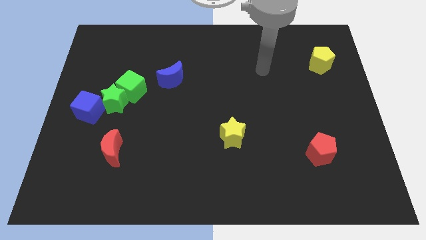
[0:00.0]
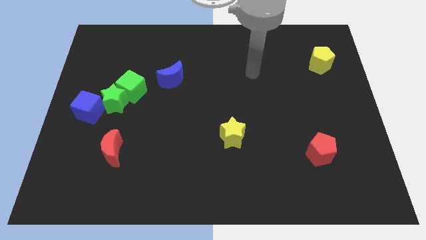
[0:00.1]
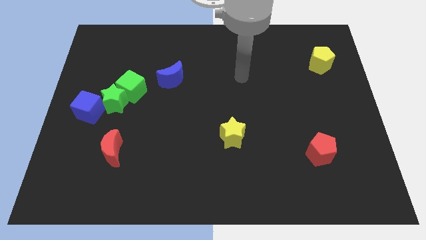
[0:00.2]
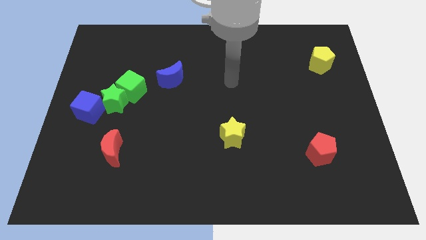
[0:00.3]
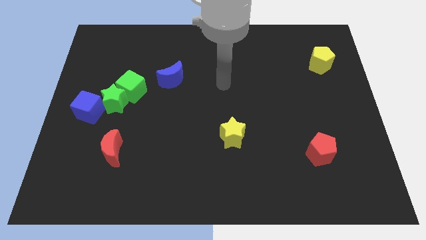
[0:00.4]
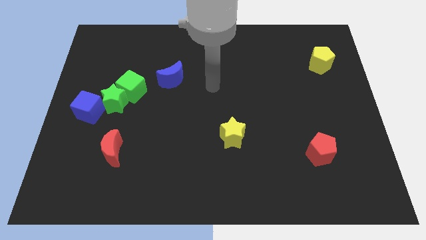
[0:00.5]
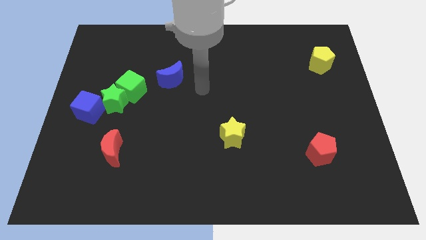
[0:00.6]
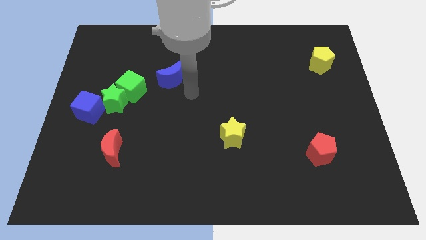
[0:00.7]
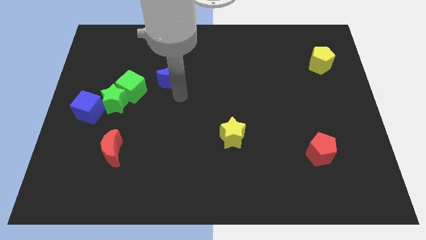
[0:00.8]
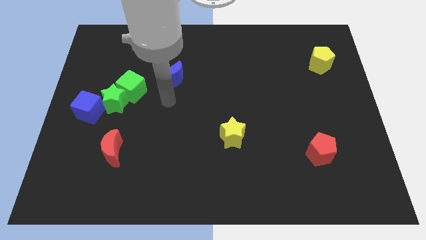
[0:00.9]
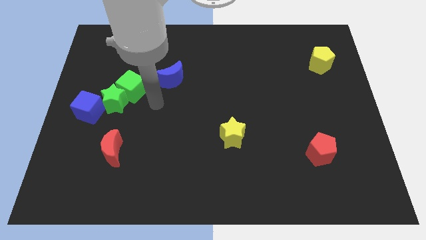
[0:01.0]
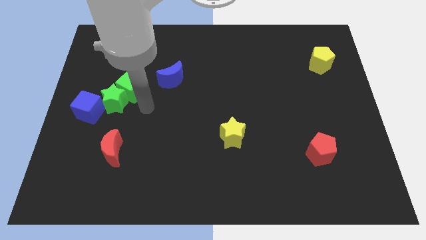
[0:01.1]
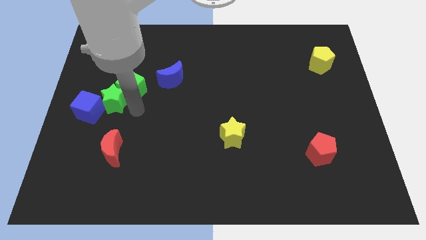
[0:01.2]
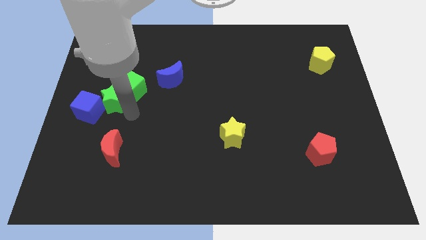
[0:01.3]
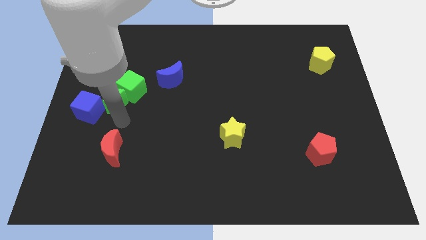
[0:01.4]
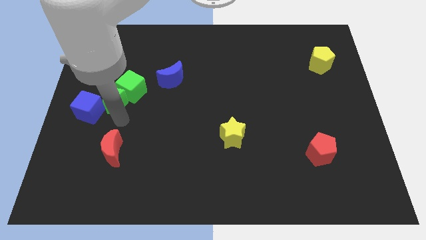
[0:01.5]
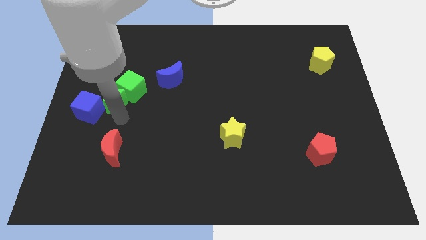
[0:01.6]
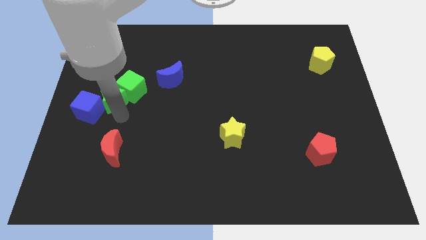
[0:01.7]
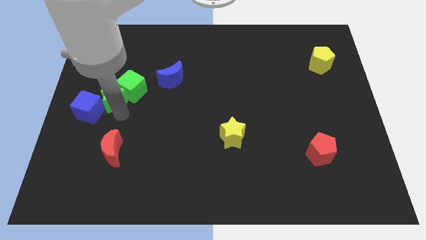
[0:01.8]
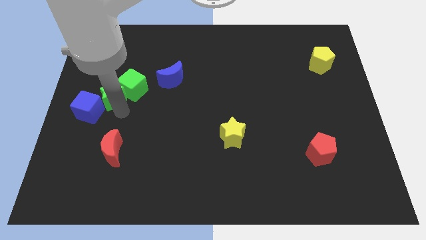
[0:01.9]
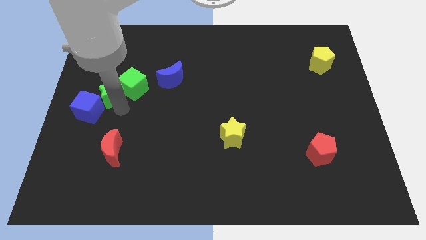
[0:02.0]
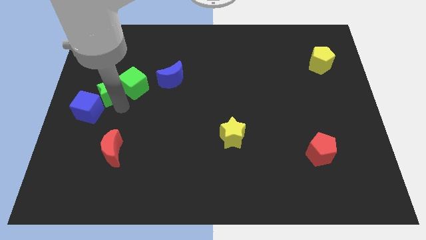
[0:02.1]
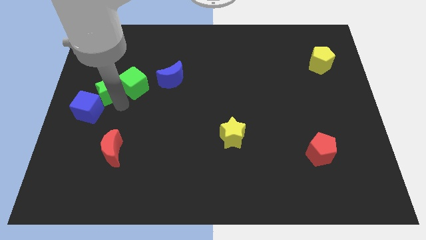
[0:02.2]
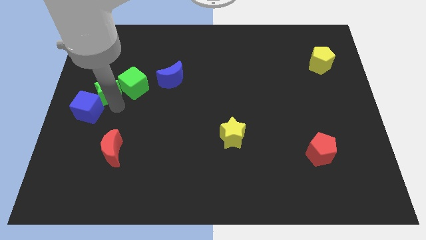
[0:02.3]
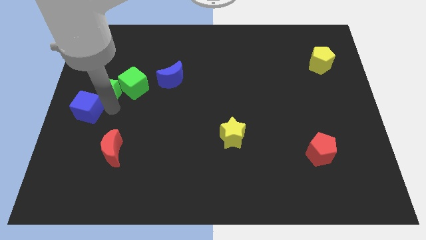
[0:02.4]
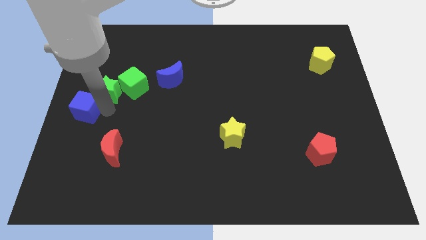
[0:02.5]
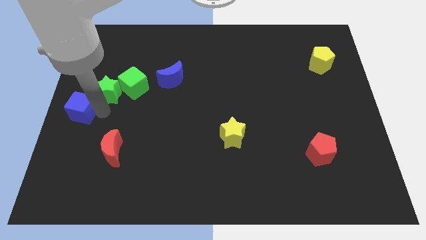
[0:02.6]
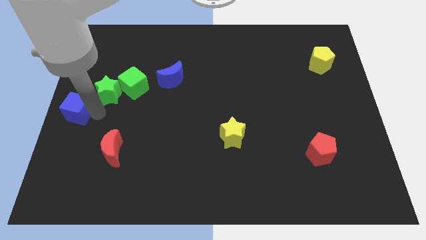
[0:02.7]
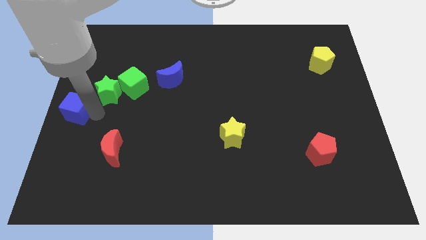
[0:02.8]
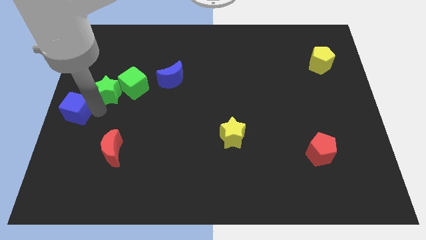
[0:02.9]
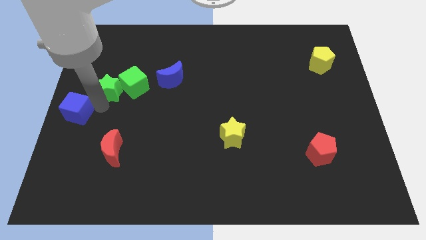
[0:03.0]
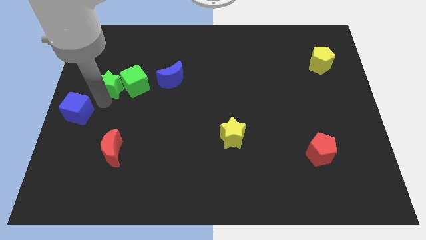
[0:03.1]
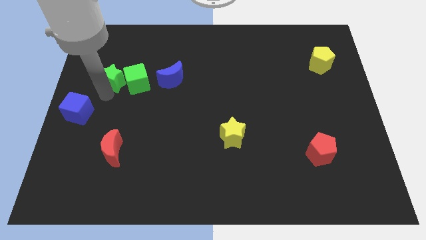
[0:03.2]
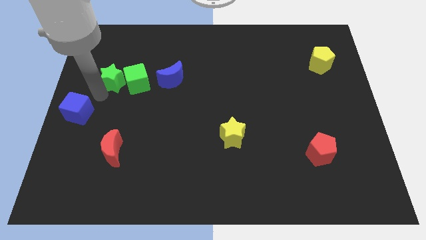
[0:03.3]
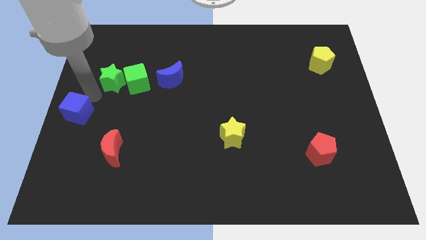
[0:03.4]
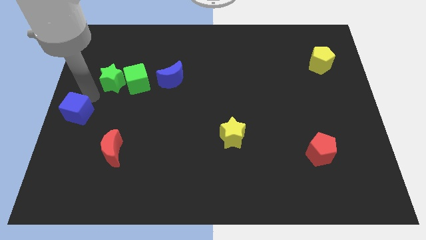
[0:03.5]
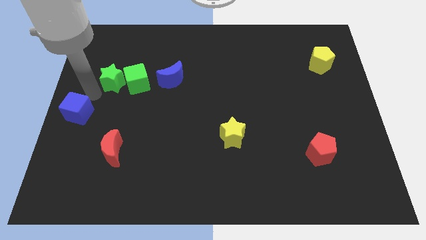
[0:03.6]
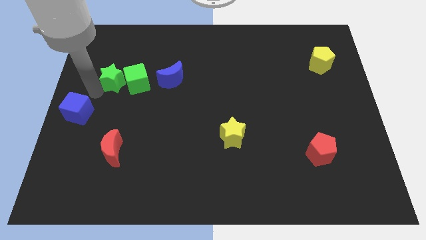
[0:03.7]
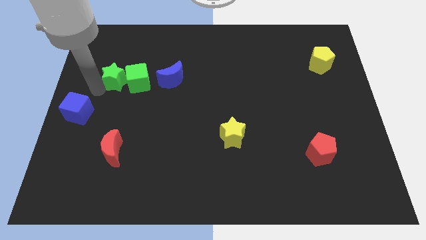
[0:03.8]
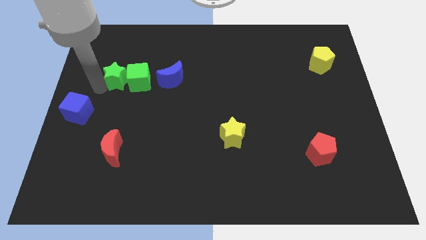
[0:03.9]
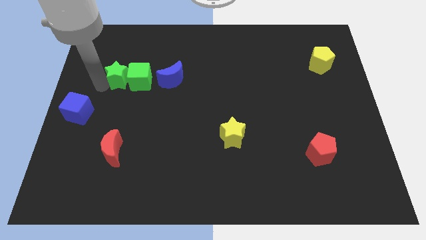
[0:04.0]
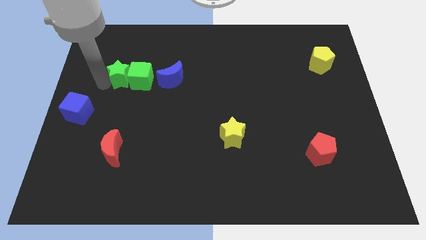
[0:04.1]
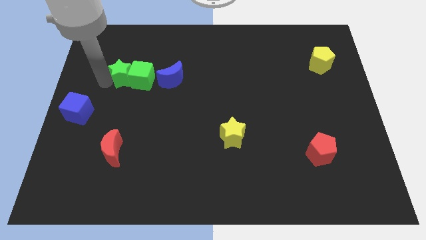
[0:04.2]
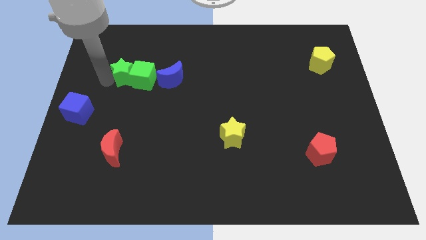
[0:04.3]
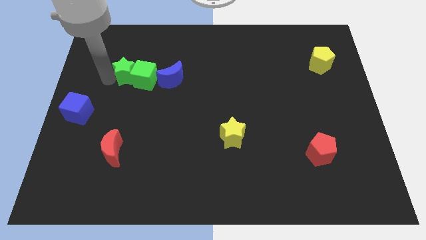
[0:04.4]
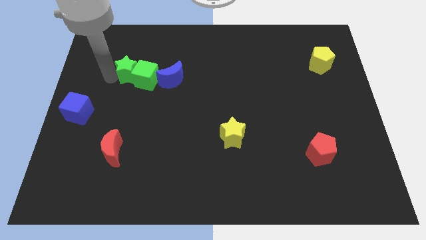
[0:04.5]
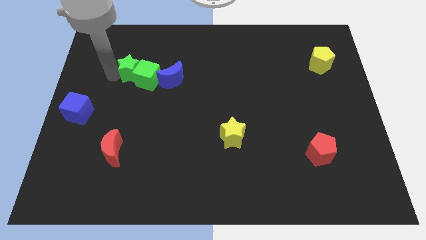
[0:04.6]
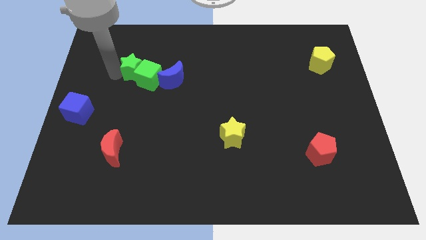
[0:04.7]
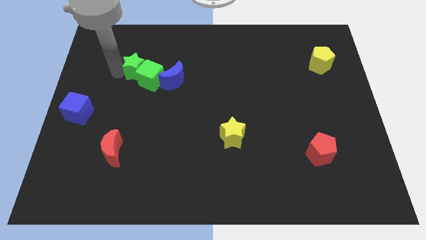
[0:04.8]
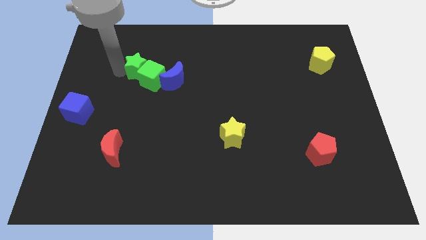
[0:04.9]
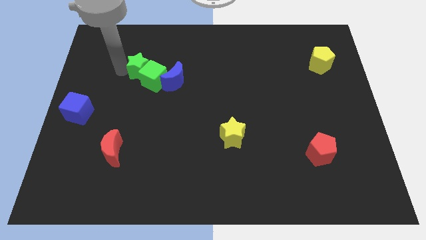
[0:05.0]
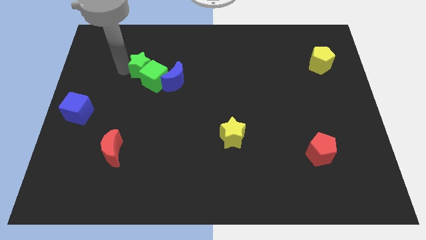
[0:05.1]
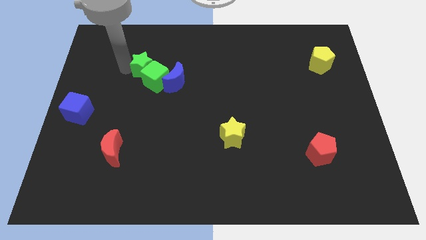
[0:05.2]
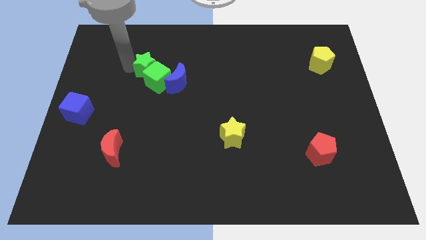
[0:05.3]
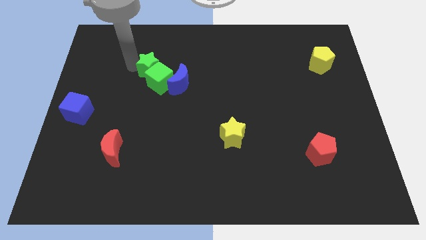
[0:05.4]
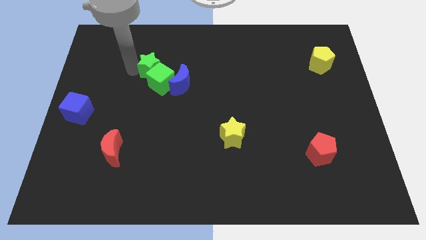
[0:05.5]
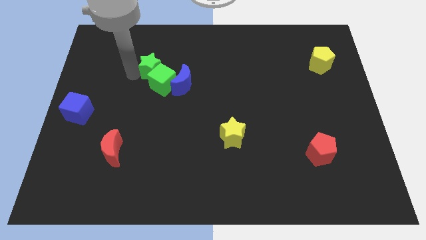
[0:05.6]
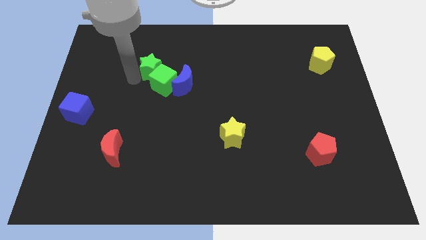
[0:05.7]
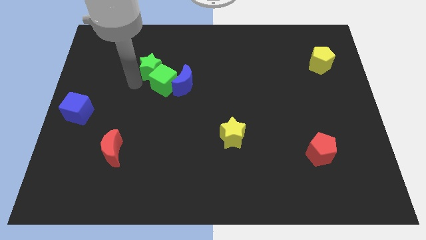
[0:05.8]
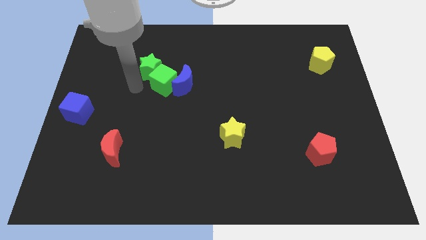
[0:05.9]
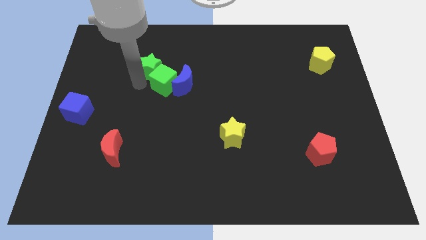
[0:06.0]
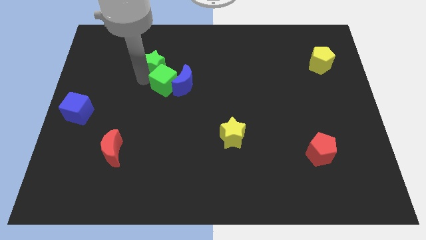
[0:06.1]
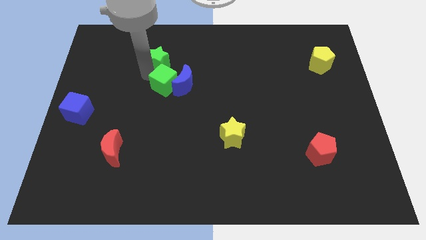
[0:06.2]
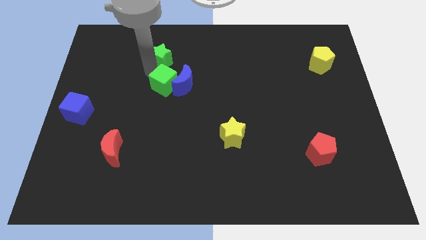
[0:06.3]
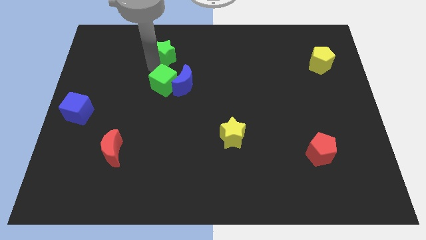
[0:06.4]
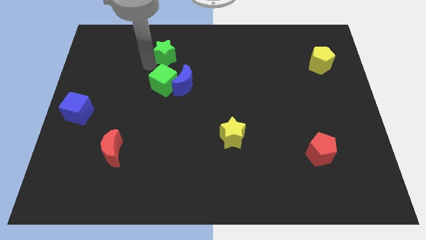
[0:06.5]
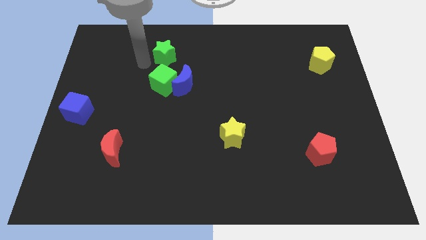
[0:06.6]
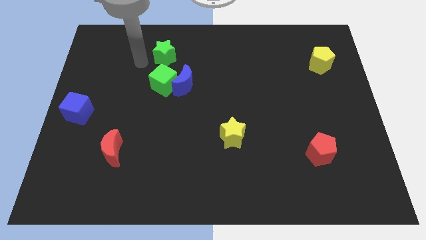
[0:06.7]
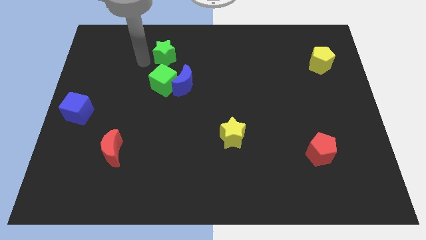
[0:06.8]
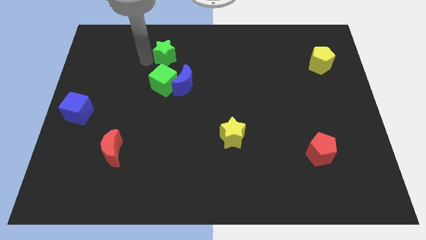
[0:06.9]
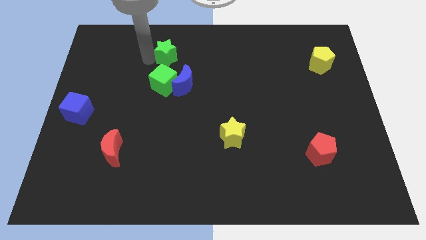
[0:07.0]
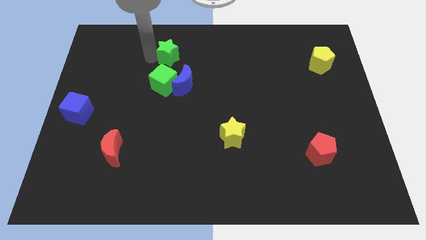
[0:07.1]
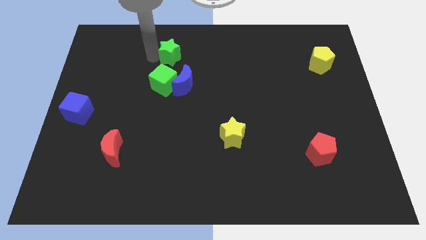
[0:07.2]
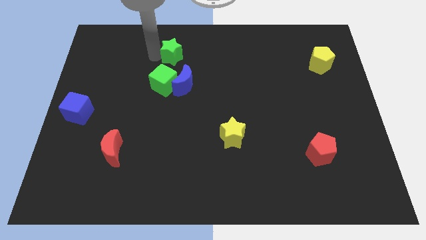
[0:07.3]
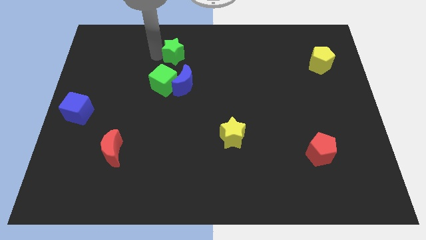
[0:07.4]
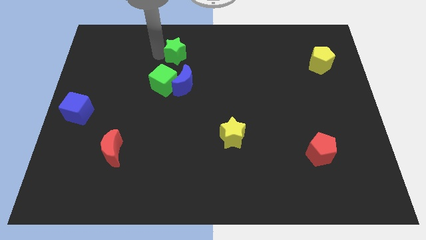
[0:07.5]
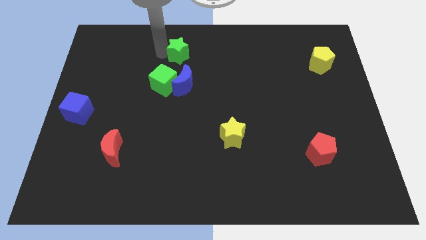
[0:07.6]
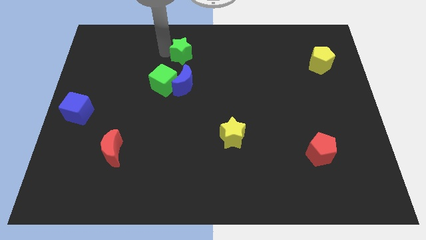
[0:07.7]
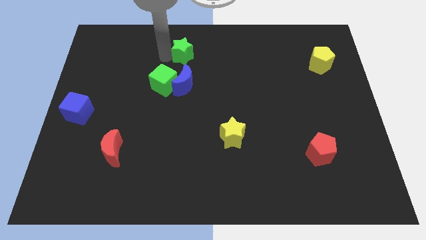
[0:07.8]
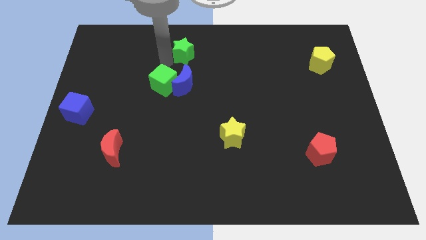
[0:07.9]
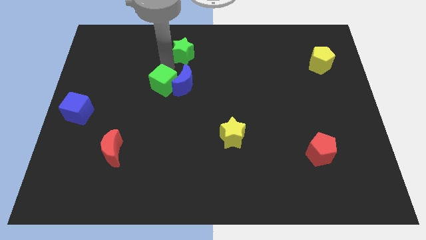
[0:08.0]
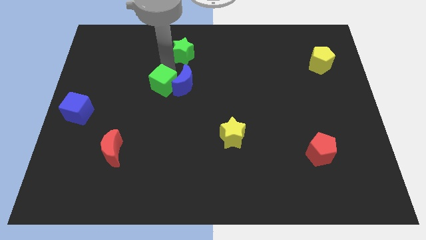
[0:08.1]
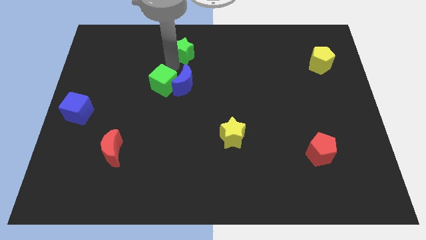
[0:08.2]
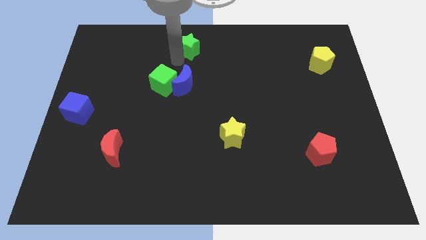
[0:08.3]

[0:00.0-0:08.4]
put the green star to the towards your base
